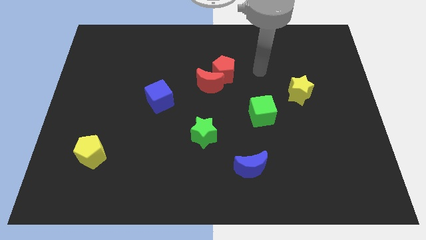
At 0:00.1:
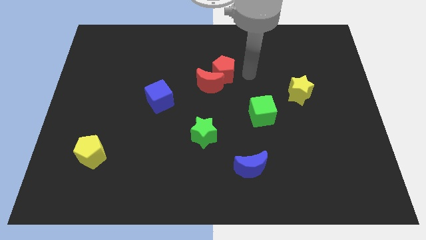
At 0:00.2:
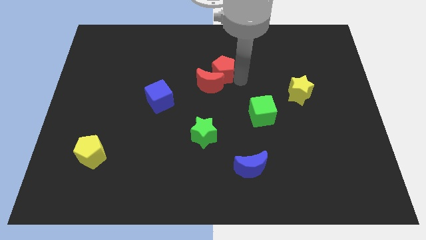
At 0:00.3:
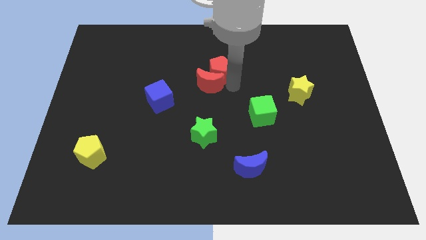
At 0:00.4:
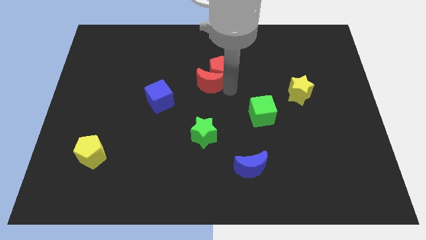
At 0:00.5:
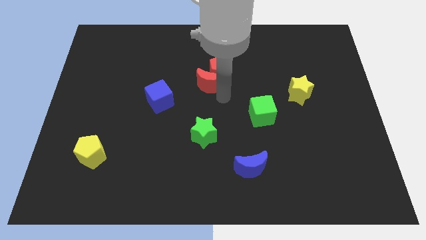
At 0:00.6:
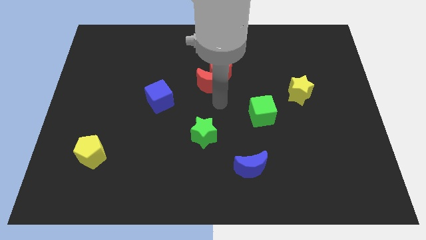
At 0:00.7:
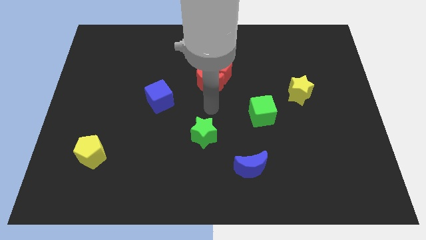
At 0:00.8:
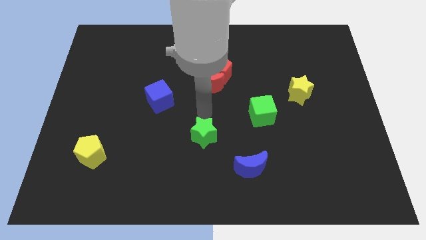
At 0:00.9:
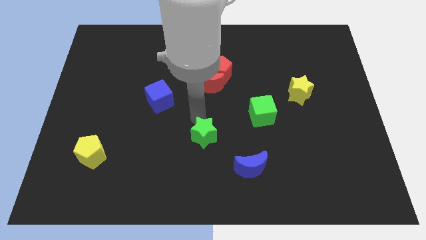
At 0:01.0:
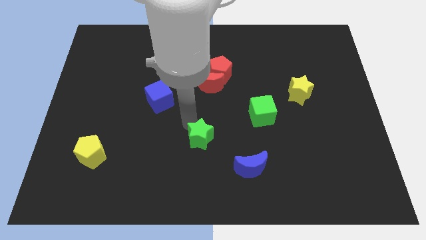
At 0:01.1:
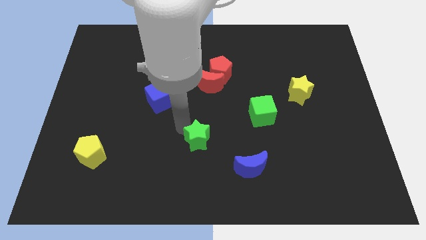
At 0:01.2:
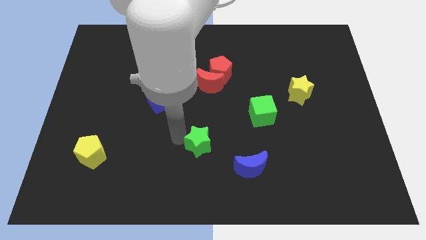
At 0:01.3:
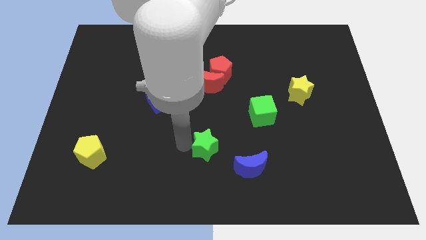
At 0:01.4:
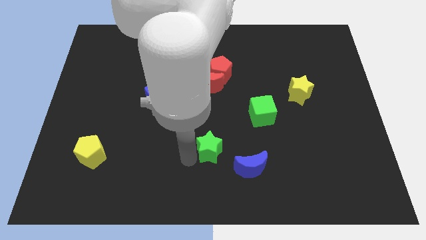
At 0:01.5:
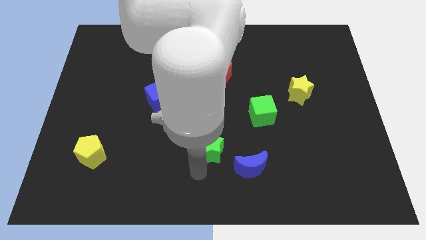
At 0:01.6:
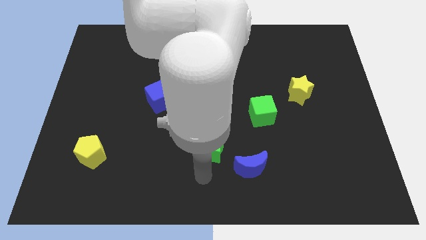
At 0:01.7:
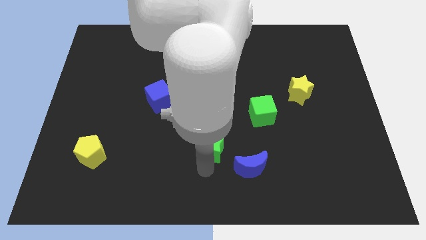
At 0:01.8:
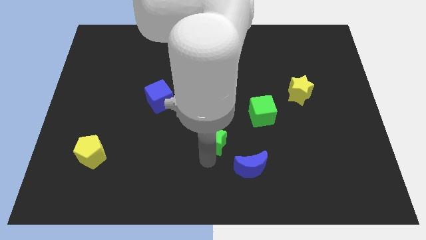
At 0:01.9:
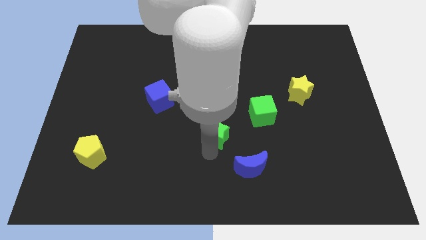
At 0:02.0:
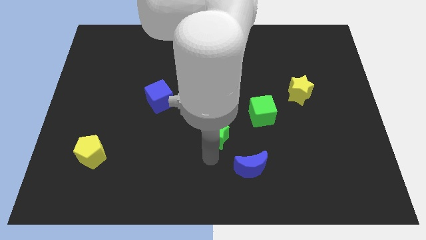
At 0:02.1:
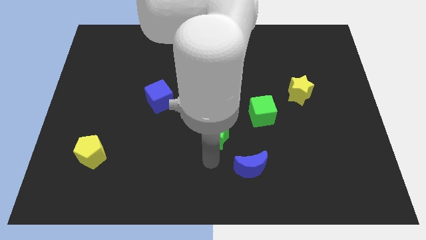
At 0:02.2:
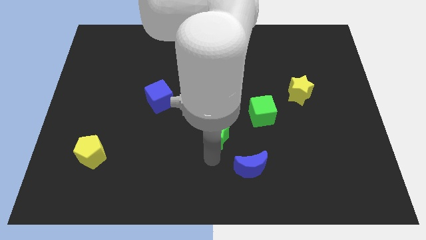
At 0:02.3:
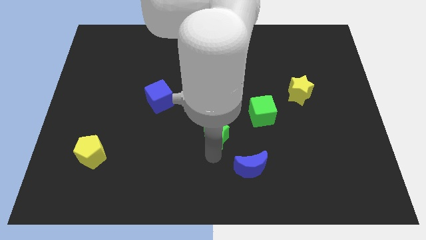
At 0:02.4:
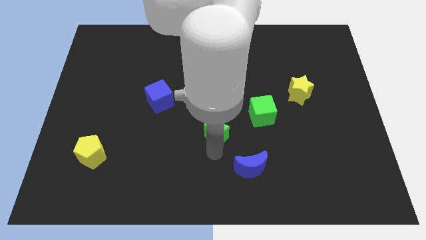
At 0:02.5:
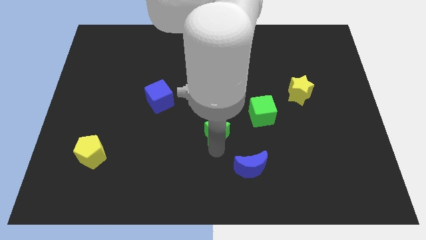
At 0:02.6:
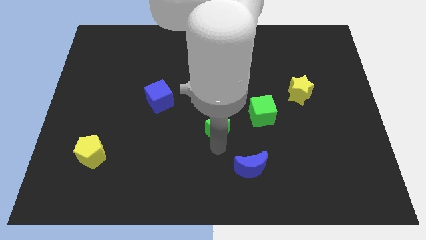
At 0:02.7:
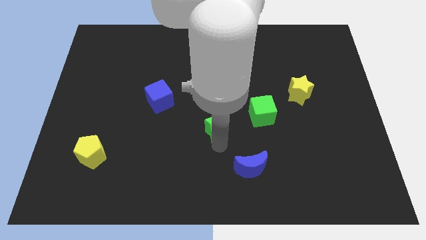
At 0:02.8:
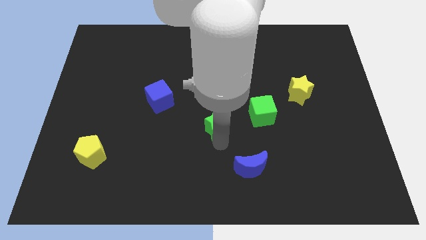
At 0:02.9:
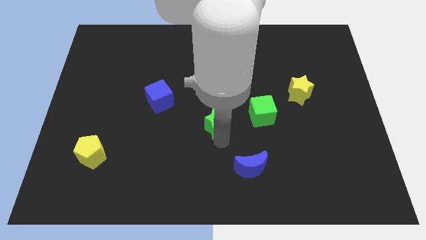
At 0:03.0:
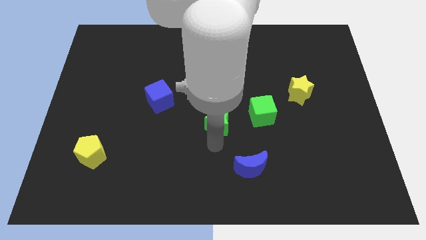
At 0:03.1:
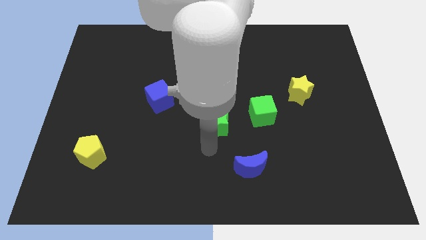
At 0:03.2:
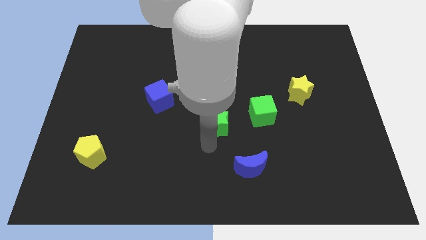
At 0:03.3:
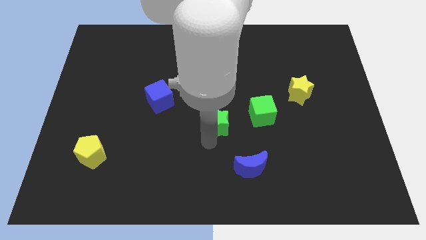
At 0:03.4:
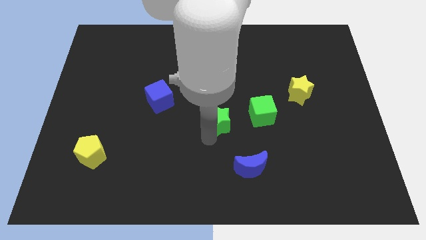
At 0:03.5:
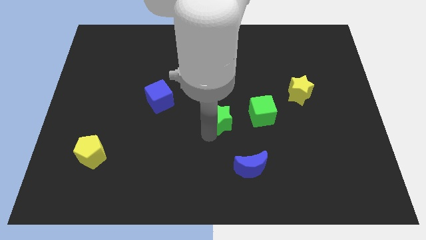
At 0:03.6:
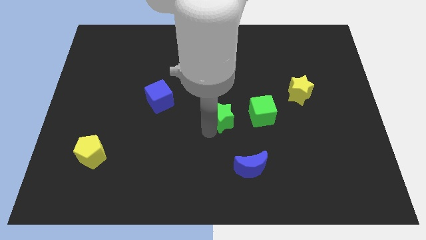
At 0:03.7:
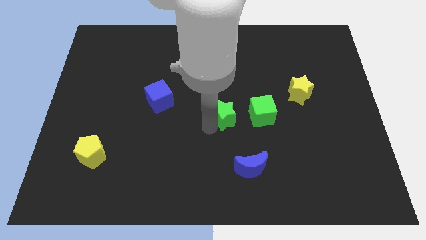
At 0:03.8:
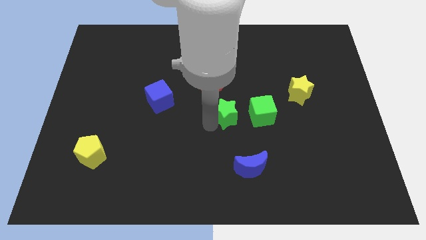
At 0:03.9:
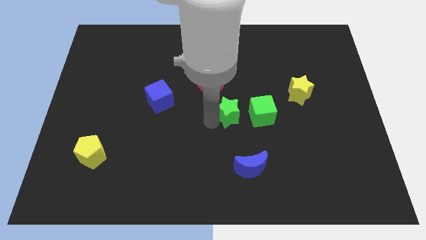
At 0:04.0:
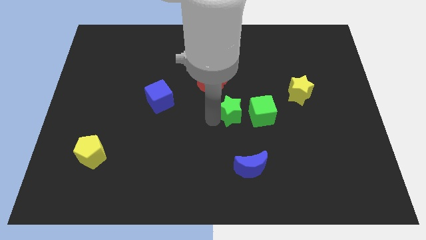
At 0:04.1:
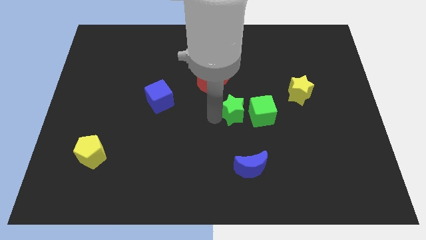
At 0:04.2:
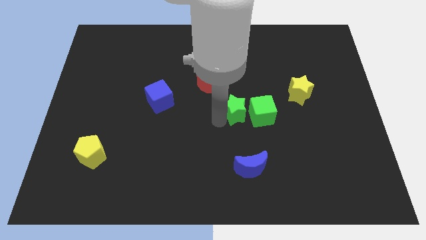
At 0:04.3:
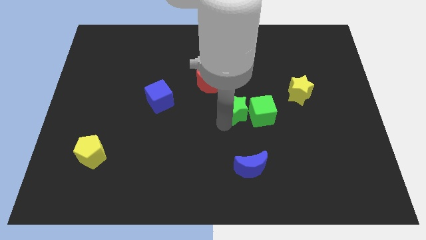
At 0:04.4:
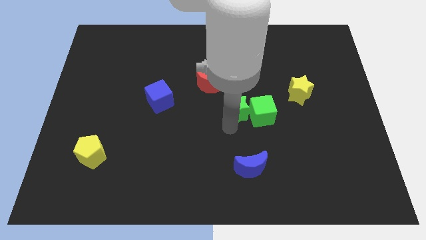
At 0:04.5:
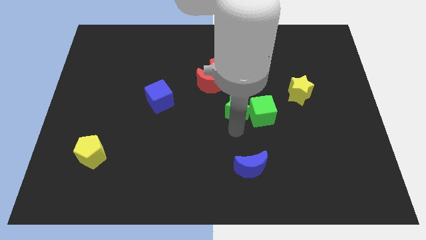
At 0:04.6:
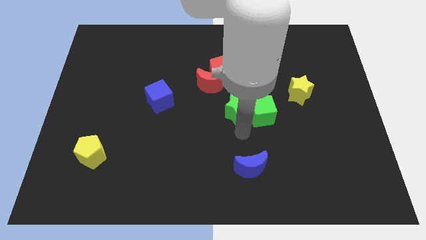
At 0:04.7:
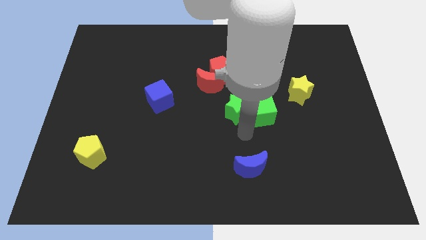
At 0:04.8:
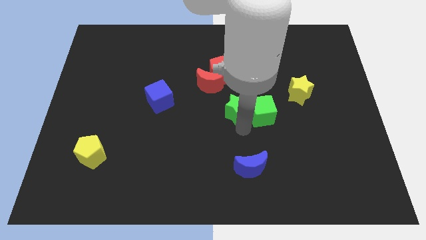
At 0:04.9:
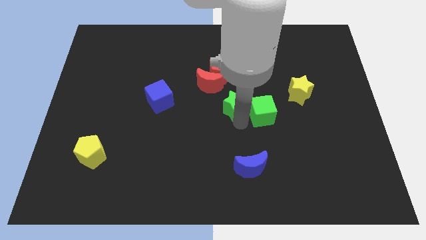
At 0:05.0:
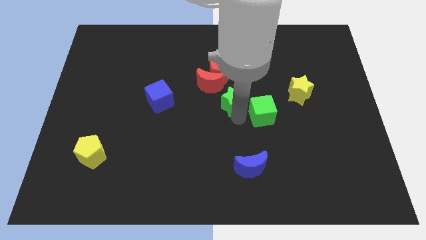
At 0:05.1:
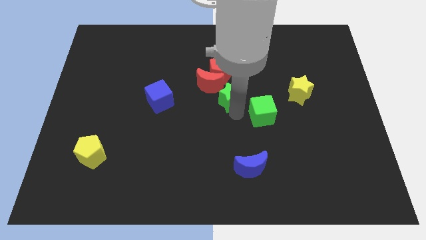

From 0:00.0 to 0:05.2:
push the green star to the right of the red moon

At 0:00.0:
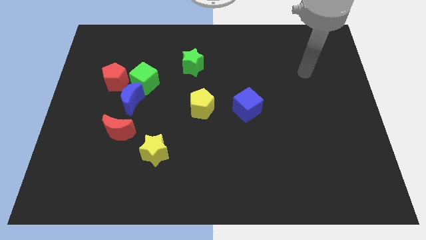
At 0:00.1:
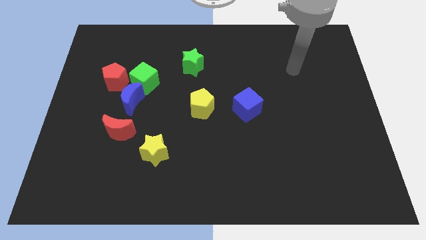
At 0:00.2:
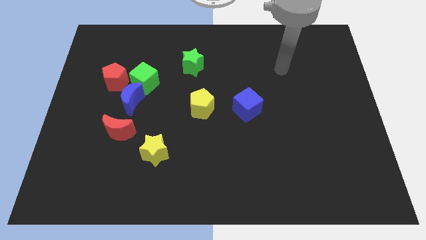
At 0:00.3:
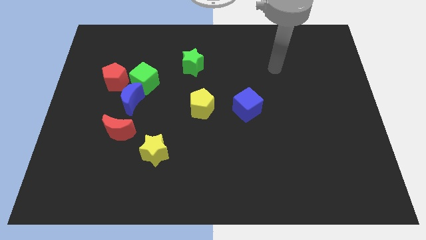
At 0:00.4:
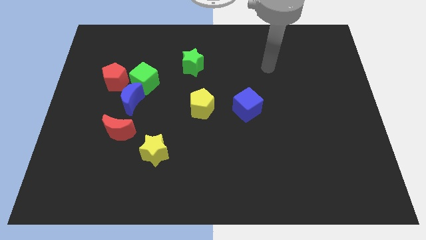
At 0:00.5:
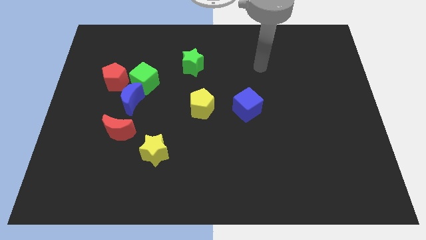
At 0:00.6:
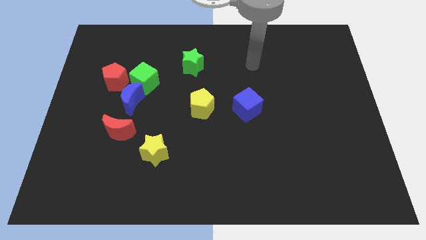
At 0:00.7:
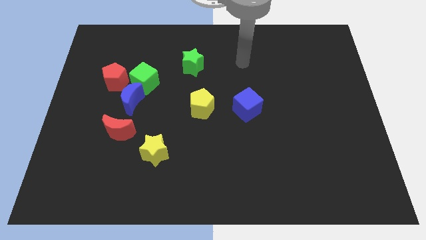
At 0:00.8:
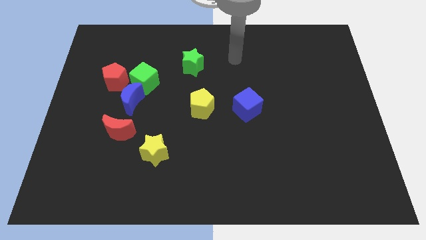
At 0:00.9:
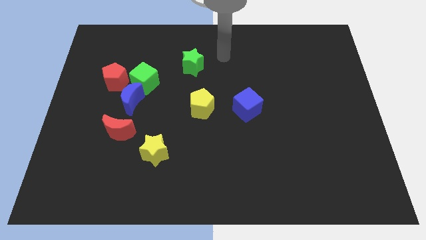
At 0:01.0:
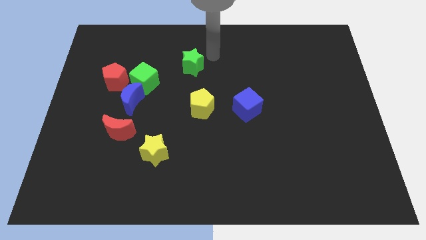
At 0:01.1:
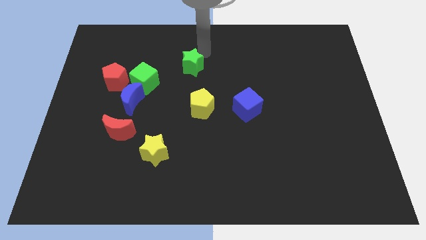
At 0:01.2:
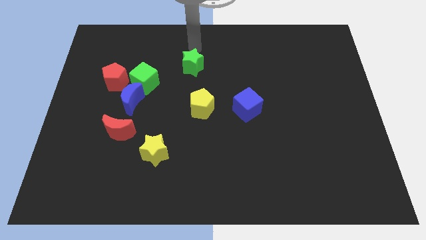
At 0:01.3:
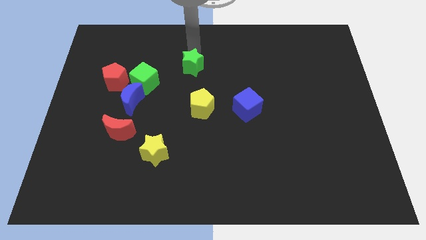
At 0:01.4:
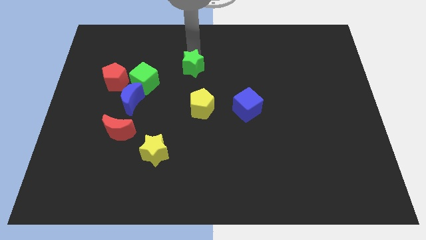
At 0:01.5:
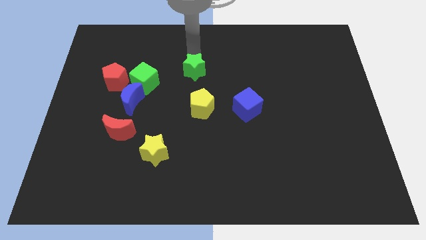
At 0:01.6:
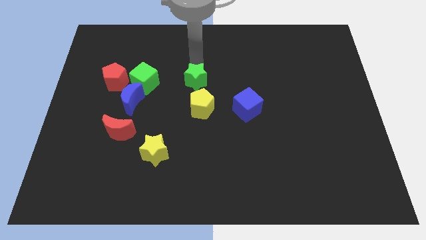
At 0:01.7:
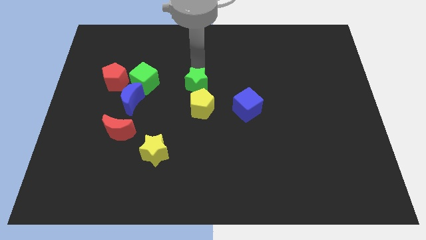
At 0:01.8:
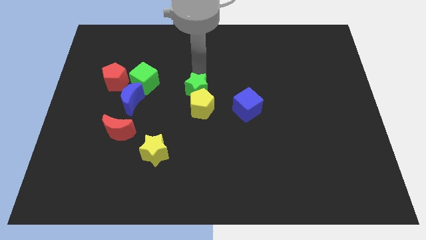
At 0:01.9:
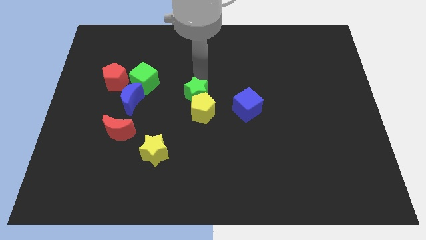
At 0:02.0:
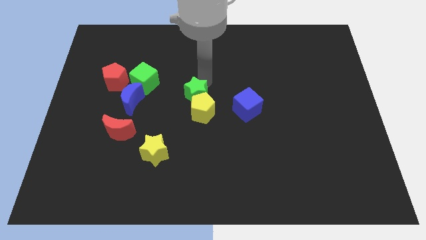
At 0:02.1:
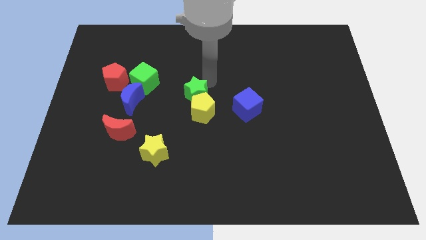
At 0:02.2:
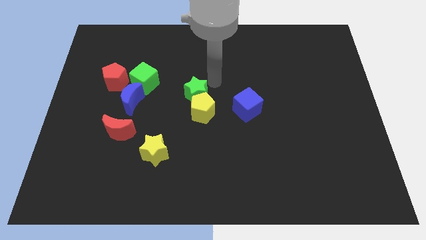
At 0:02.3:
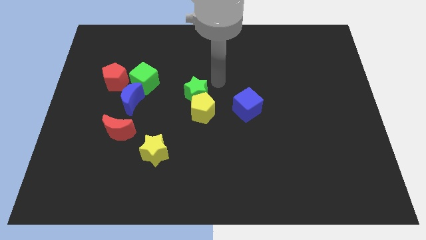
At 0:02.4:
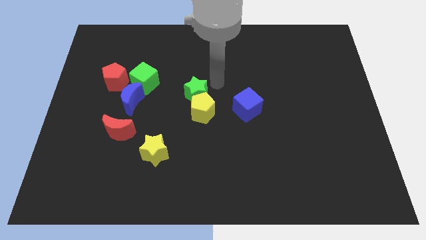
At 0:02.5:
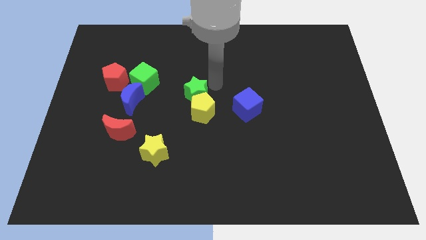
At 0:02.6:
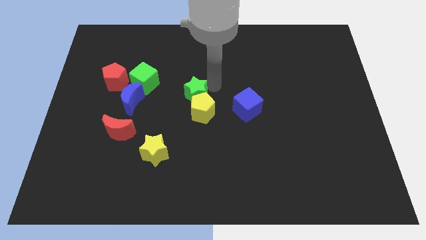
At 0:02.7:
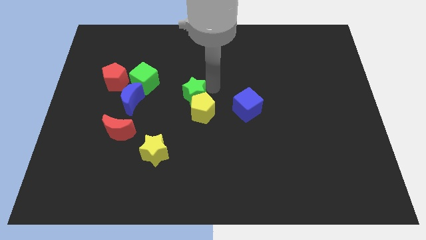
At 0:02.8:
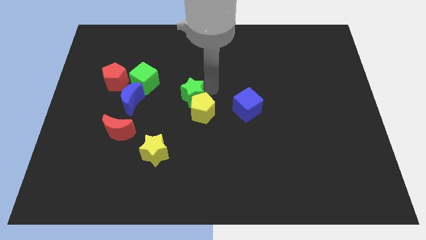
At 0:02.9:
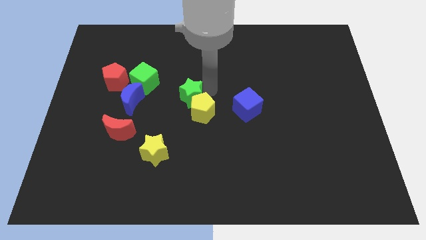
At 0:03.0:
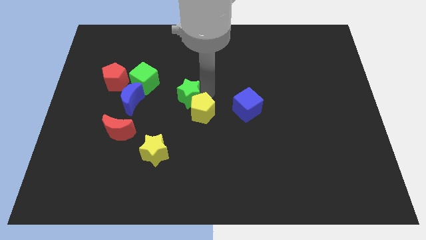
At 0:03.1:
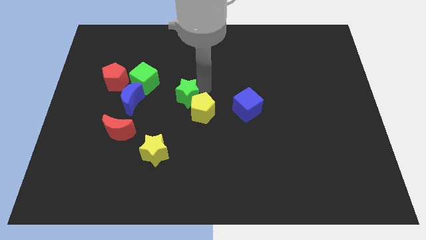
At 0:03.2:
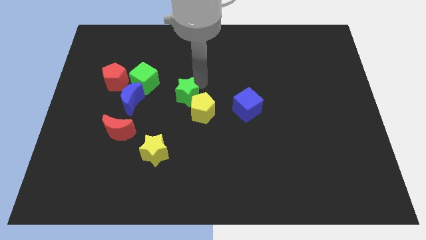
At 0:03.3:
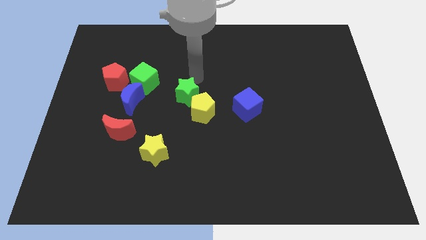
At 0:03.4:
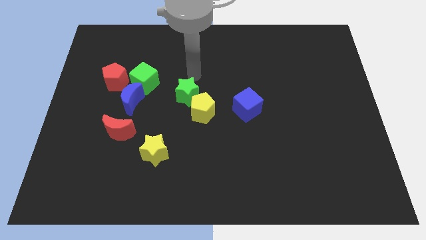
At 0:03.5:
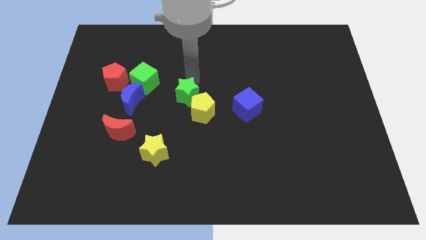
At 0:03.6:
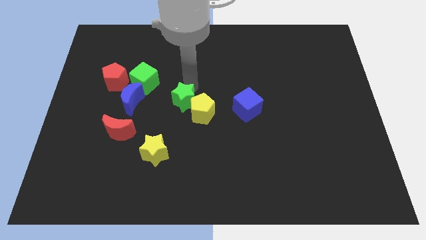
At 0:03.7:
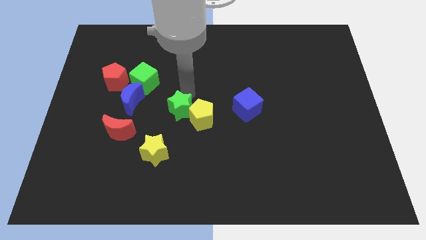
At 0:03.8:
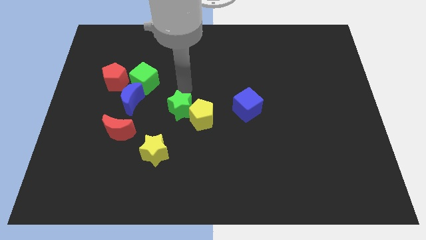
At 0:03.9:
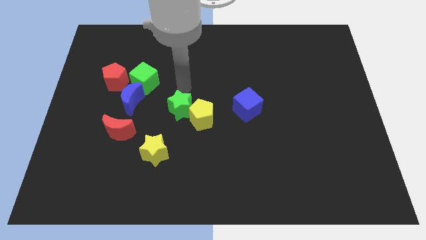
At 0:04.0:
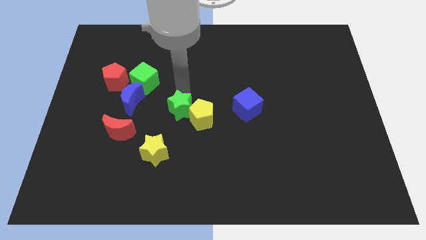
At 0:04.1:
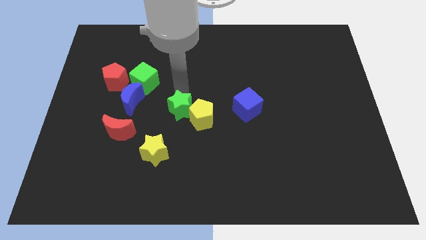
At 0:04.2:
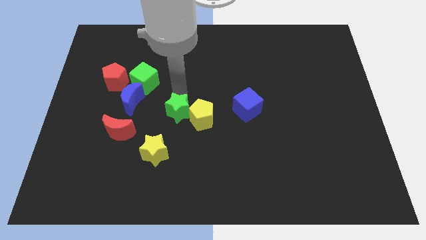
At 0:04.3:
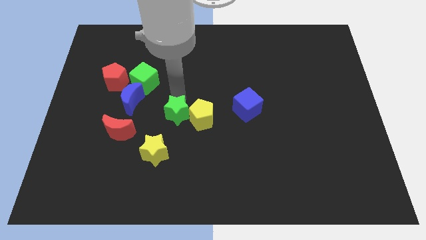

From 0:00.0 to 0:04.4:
push the green star diagonally down and to the left of the yellow pentagon
